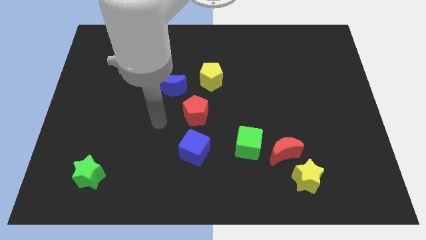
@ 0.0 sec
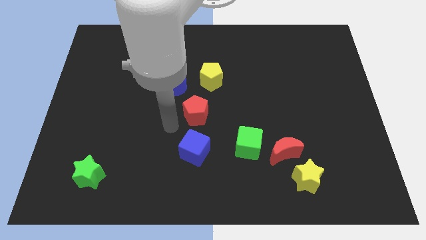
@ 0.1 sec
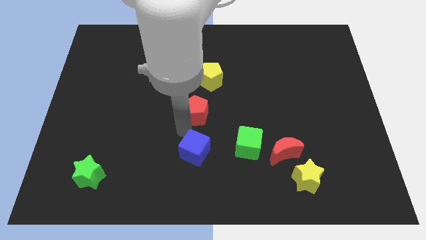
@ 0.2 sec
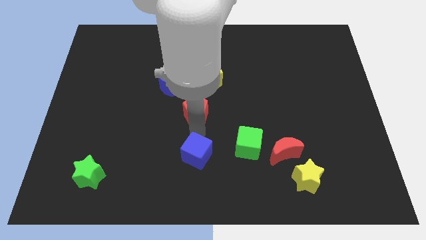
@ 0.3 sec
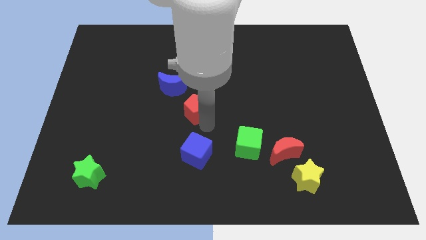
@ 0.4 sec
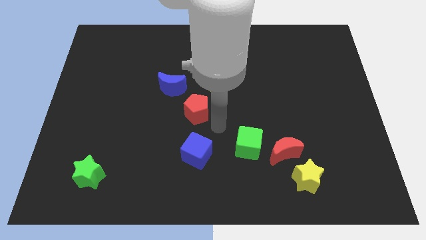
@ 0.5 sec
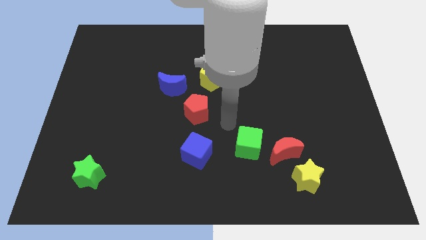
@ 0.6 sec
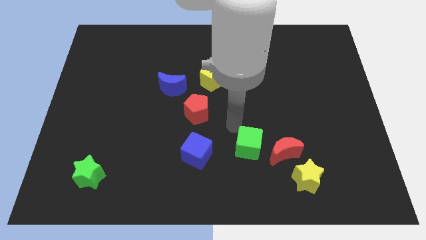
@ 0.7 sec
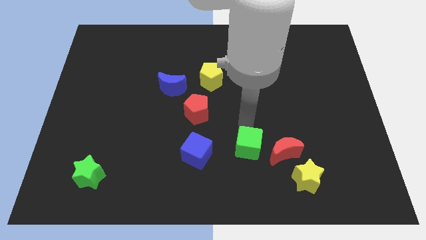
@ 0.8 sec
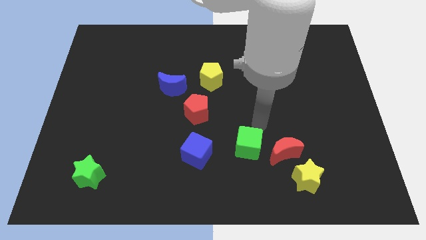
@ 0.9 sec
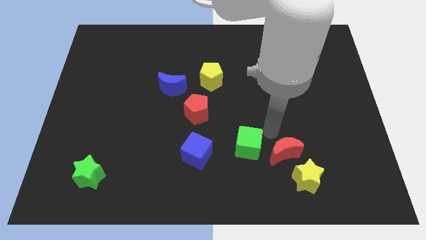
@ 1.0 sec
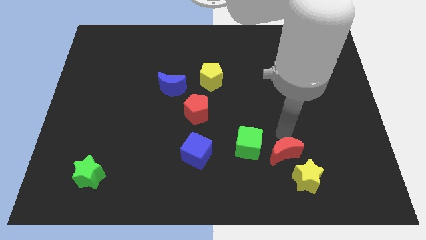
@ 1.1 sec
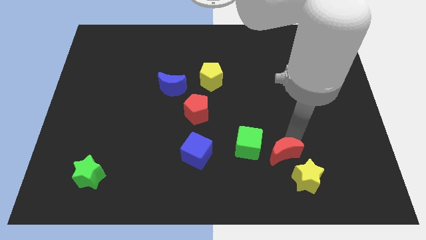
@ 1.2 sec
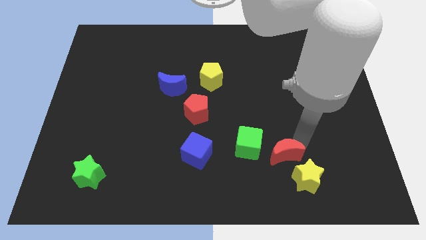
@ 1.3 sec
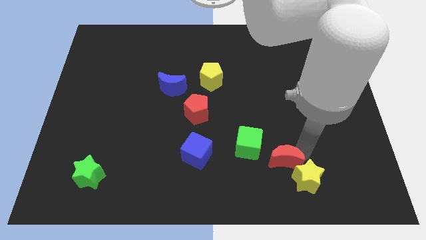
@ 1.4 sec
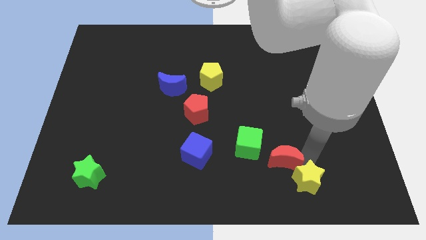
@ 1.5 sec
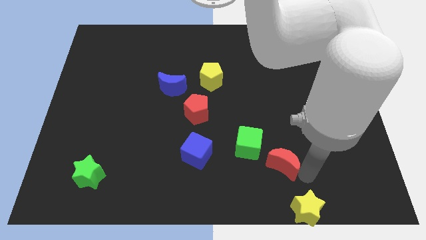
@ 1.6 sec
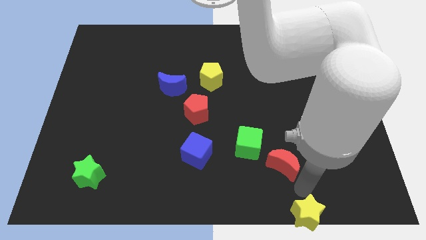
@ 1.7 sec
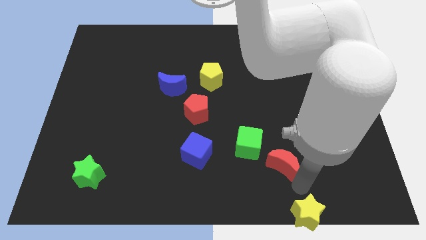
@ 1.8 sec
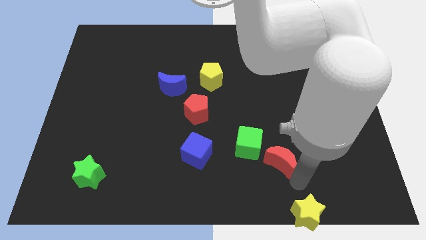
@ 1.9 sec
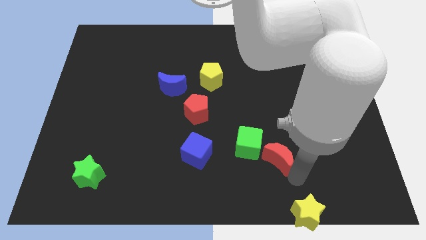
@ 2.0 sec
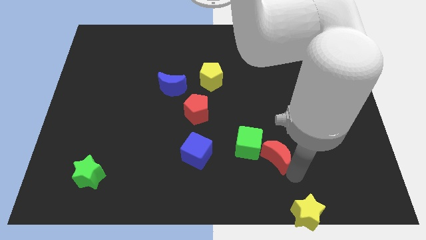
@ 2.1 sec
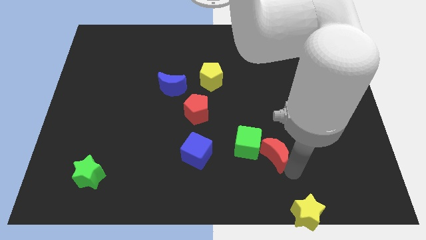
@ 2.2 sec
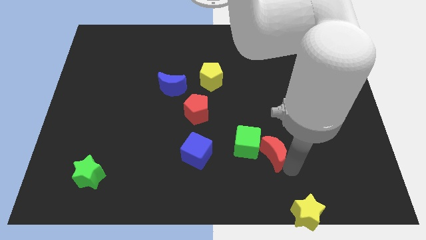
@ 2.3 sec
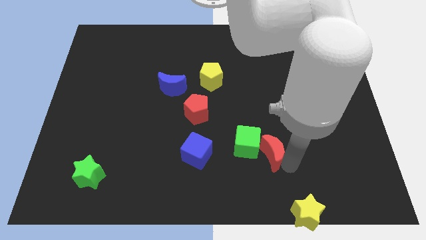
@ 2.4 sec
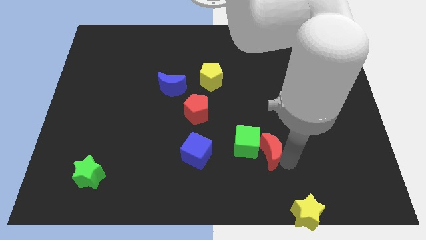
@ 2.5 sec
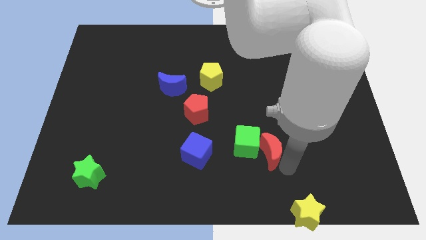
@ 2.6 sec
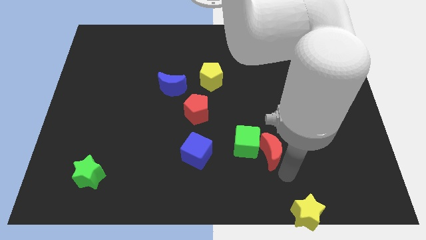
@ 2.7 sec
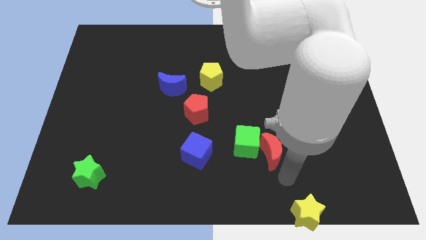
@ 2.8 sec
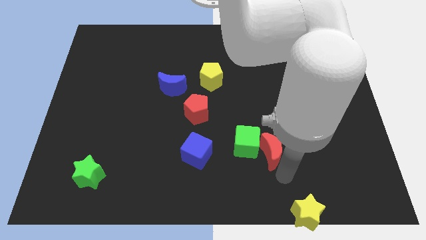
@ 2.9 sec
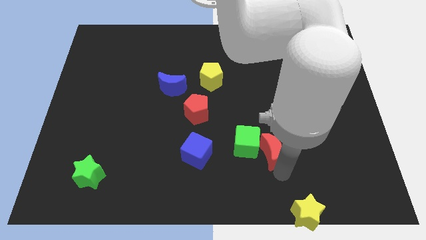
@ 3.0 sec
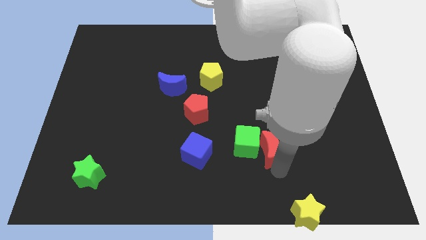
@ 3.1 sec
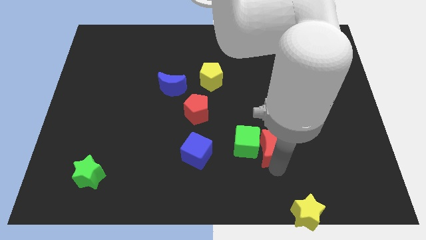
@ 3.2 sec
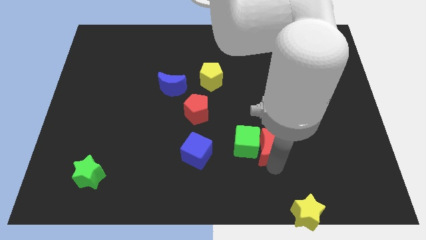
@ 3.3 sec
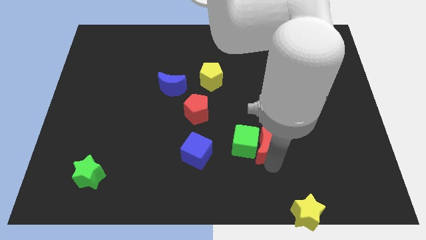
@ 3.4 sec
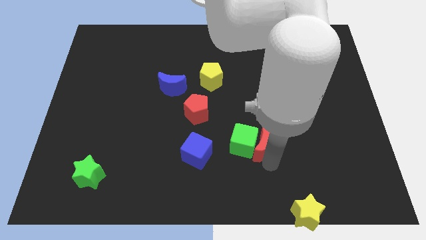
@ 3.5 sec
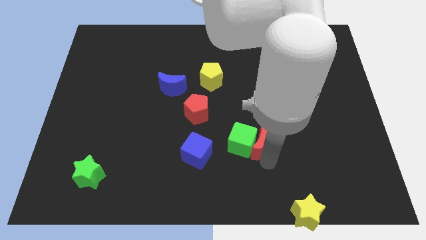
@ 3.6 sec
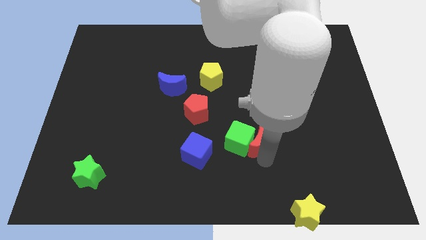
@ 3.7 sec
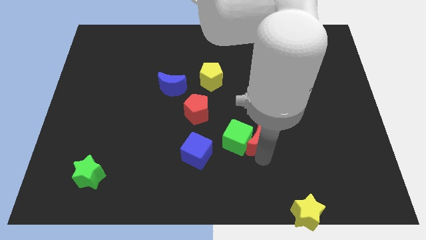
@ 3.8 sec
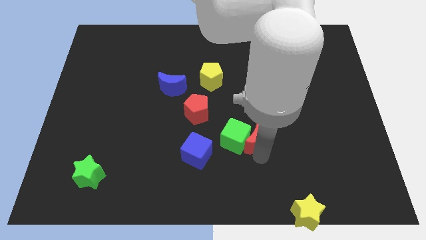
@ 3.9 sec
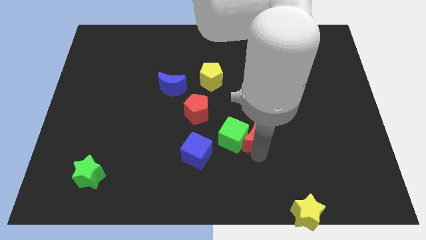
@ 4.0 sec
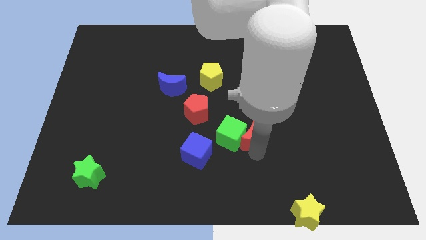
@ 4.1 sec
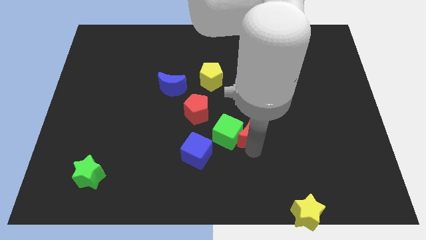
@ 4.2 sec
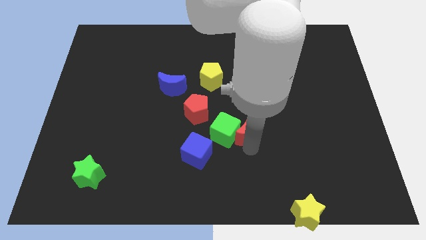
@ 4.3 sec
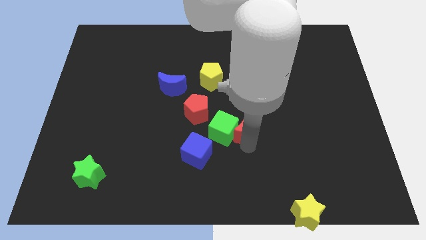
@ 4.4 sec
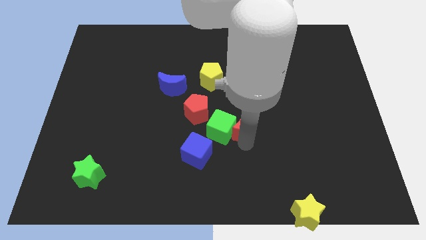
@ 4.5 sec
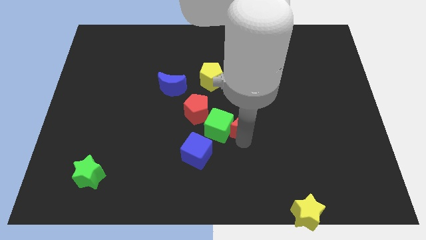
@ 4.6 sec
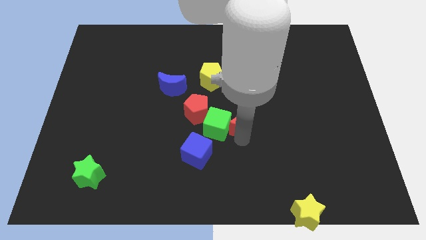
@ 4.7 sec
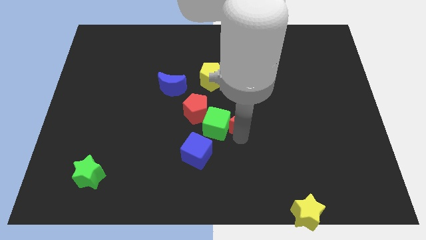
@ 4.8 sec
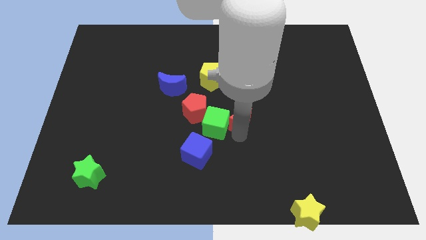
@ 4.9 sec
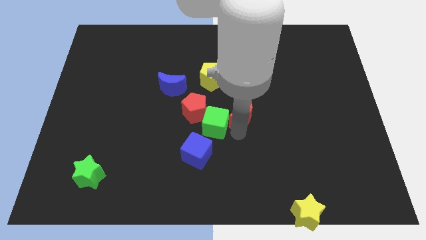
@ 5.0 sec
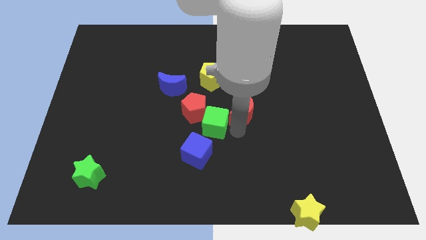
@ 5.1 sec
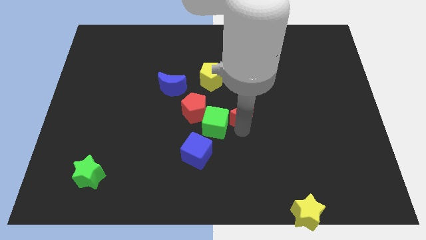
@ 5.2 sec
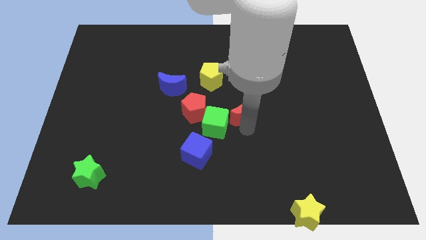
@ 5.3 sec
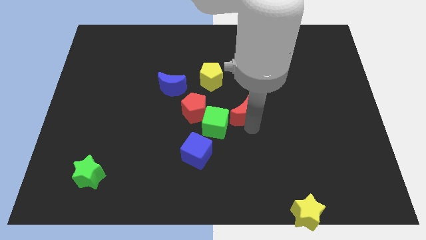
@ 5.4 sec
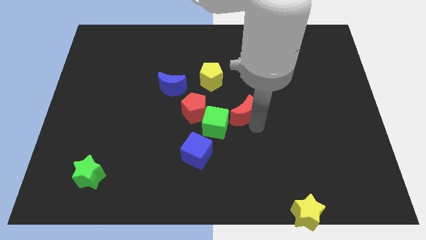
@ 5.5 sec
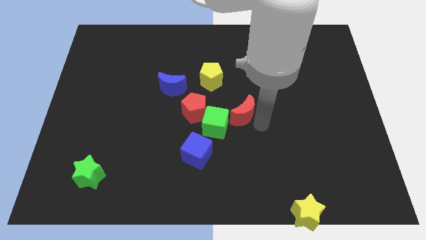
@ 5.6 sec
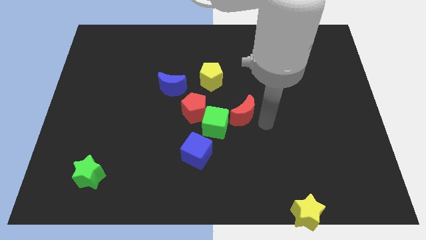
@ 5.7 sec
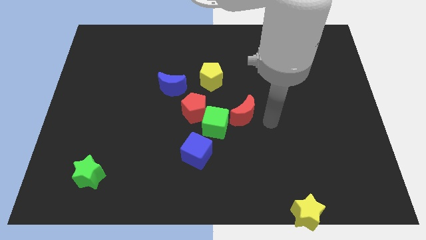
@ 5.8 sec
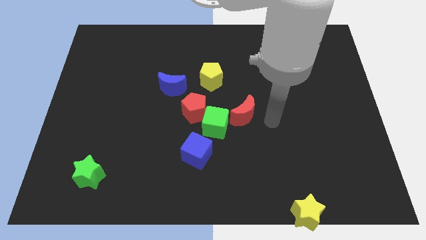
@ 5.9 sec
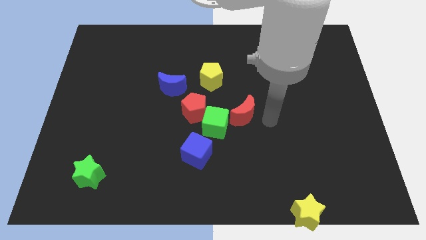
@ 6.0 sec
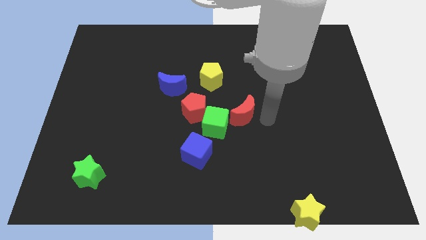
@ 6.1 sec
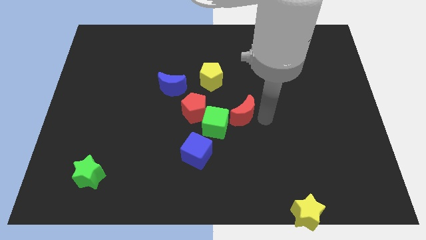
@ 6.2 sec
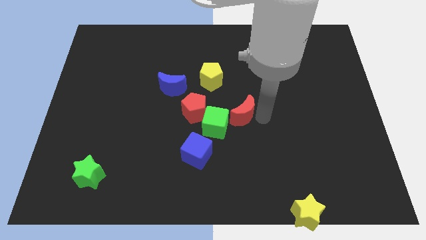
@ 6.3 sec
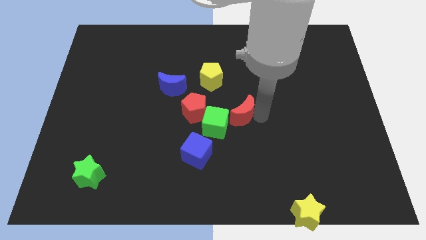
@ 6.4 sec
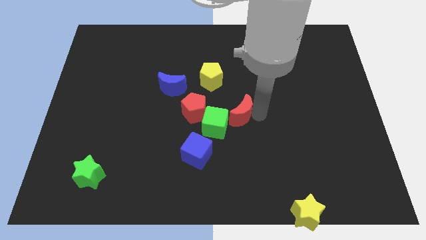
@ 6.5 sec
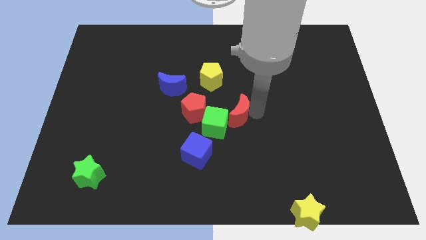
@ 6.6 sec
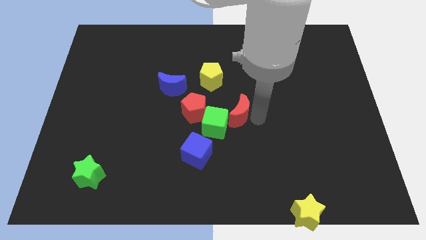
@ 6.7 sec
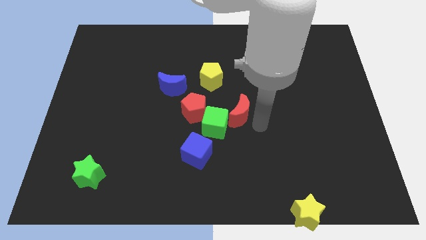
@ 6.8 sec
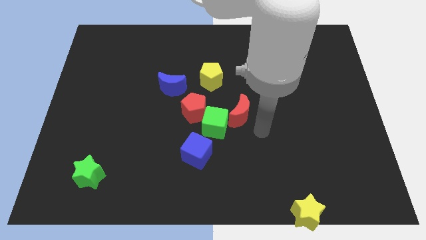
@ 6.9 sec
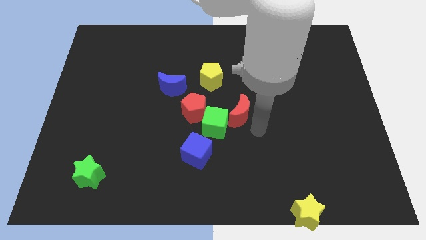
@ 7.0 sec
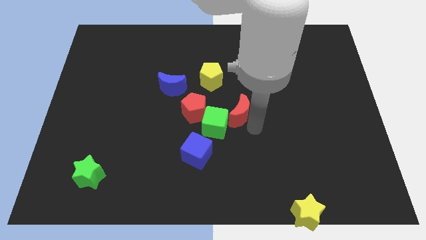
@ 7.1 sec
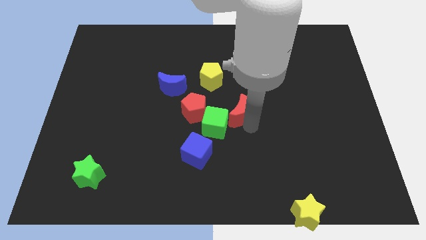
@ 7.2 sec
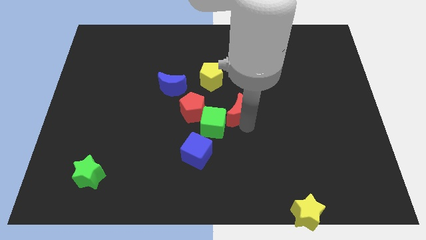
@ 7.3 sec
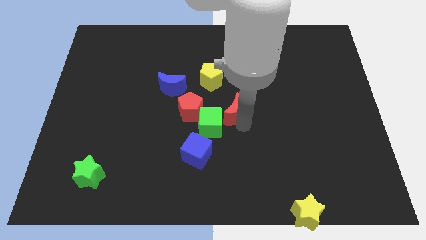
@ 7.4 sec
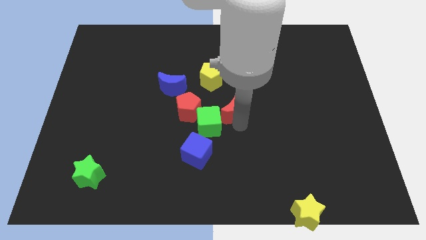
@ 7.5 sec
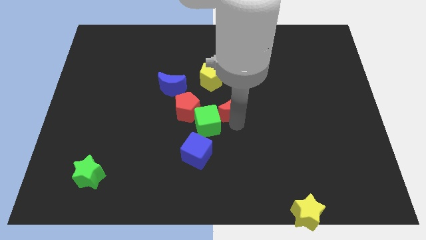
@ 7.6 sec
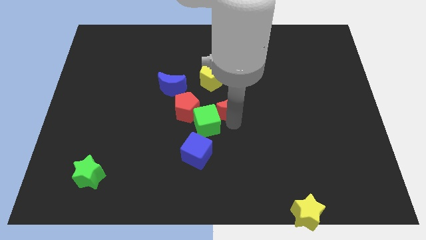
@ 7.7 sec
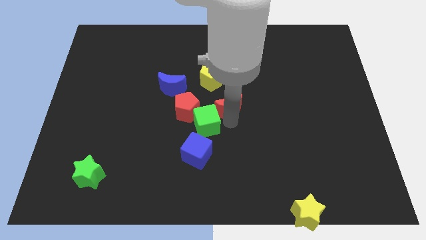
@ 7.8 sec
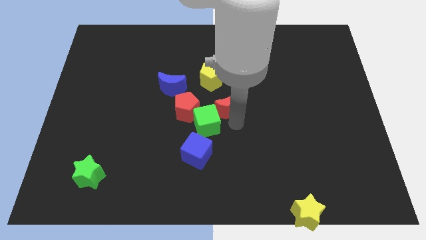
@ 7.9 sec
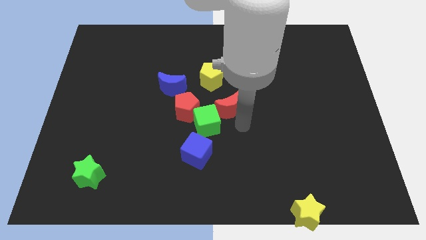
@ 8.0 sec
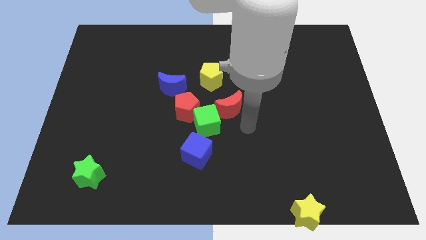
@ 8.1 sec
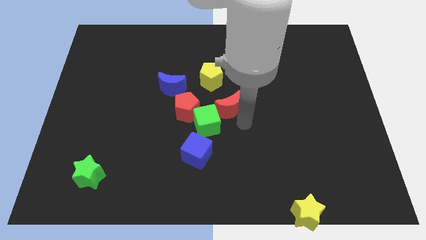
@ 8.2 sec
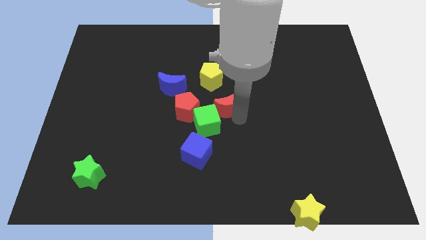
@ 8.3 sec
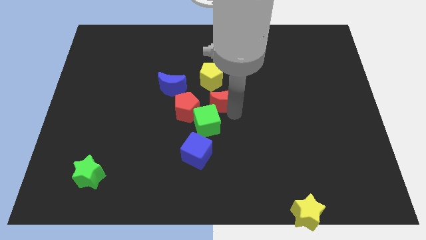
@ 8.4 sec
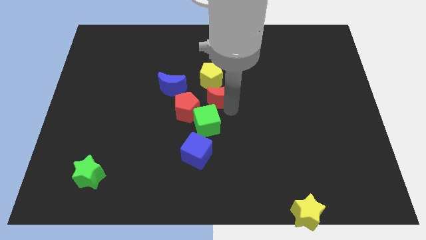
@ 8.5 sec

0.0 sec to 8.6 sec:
push the red moon up and left diagonally
